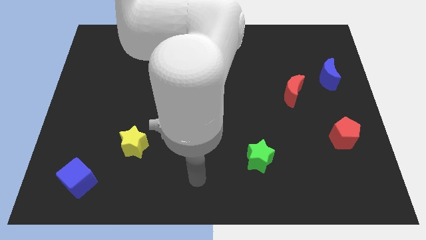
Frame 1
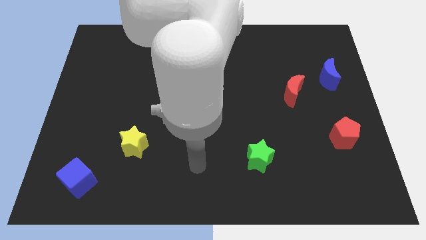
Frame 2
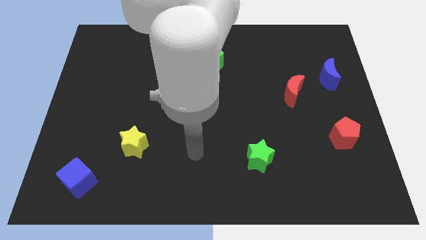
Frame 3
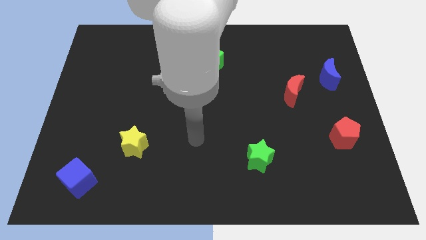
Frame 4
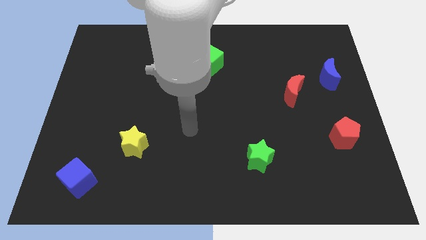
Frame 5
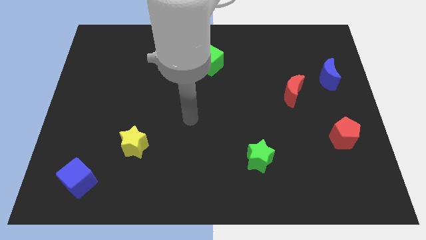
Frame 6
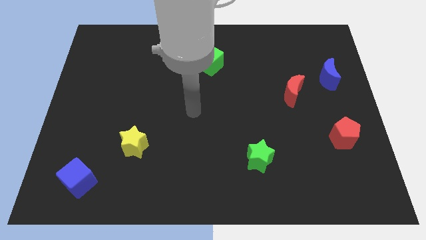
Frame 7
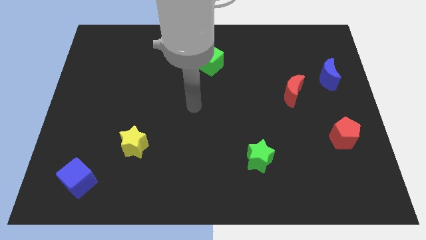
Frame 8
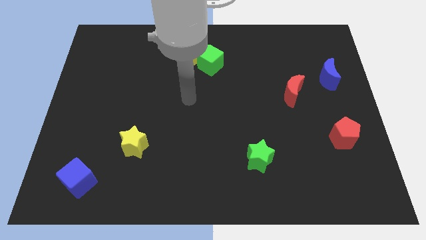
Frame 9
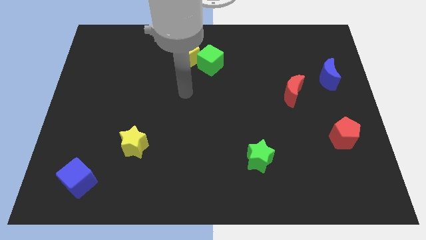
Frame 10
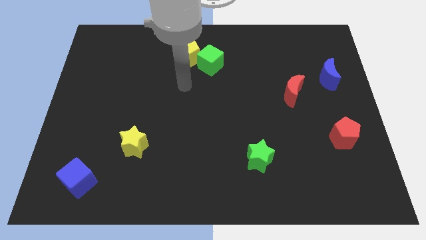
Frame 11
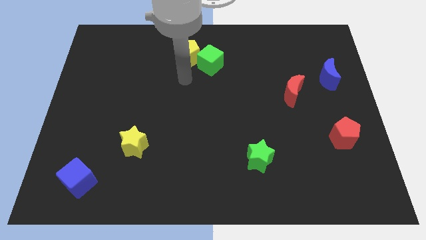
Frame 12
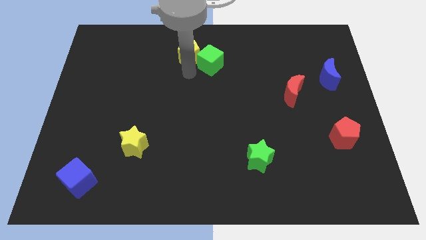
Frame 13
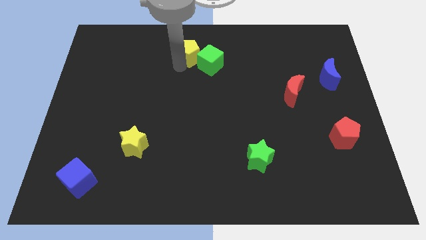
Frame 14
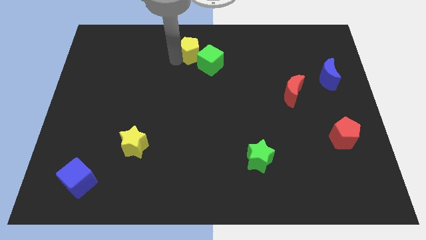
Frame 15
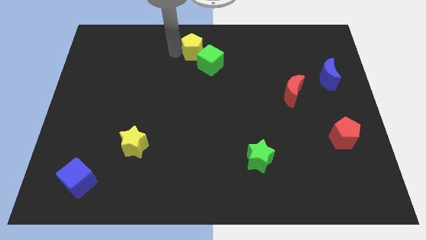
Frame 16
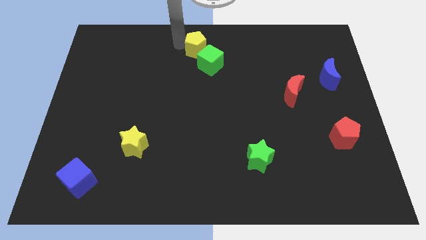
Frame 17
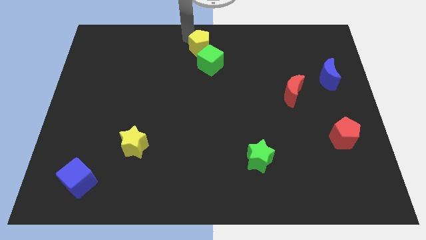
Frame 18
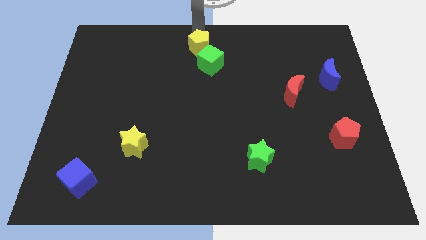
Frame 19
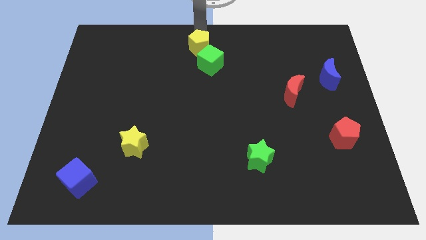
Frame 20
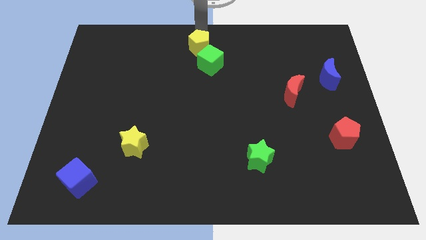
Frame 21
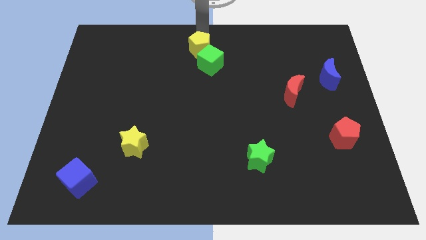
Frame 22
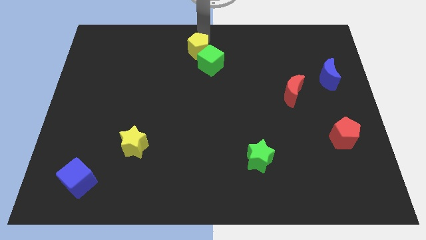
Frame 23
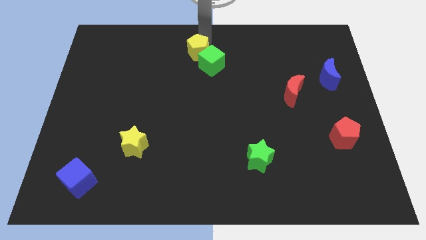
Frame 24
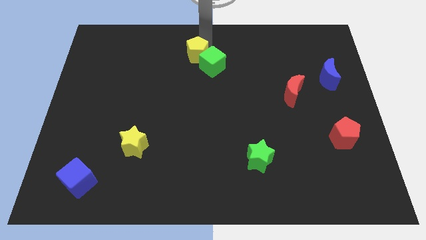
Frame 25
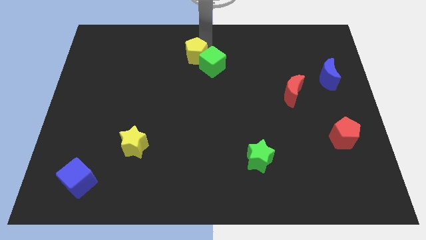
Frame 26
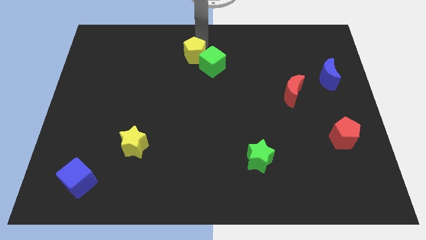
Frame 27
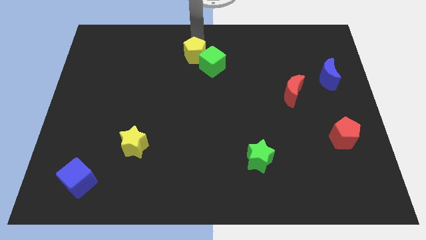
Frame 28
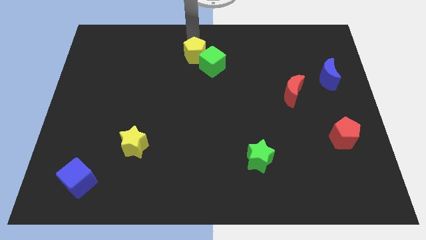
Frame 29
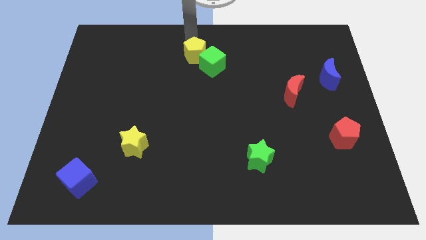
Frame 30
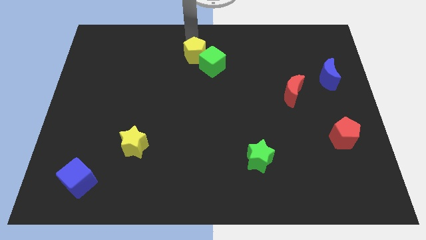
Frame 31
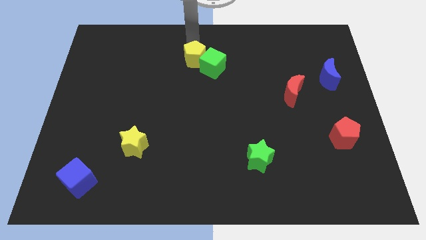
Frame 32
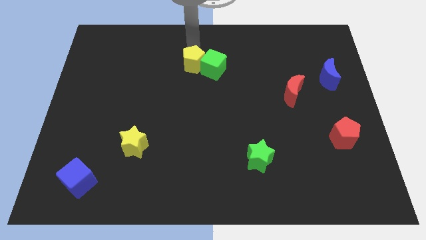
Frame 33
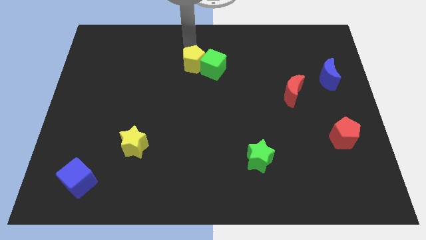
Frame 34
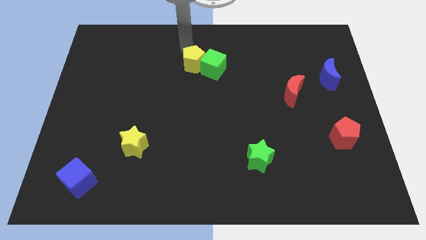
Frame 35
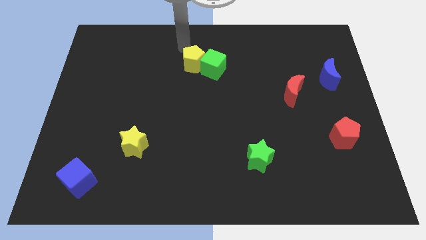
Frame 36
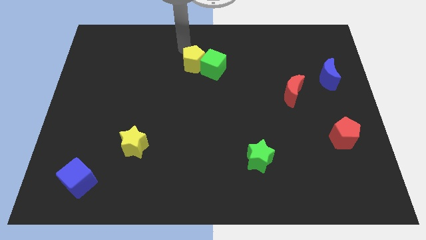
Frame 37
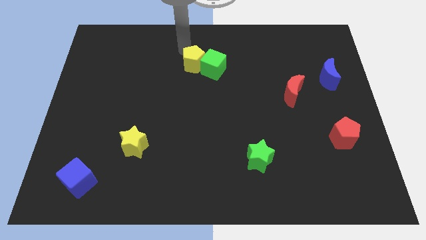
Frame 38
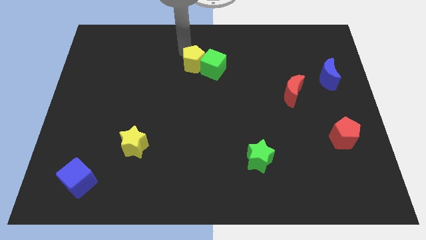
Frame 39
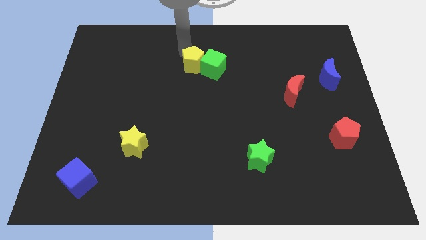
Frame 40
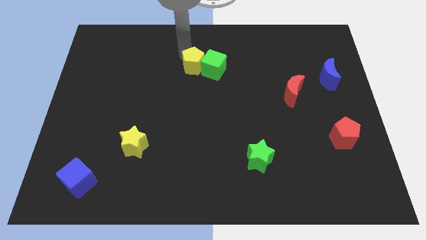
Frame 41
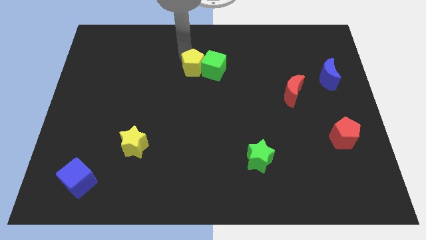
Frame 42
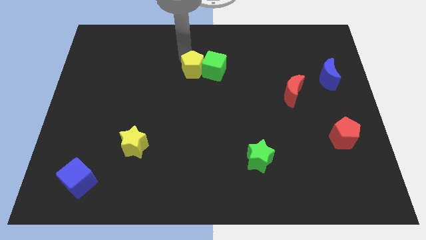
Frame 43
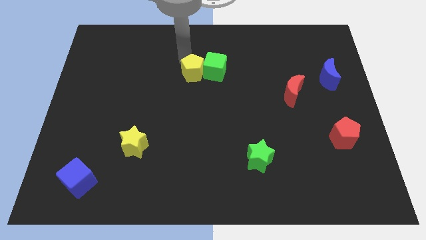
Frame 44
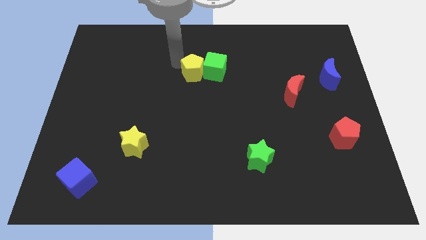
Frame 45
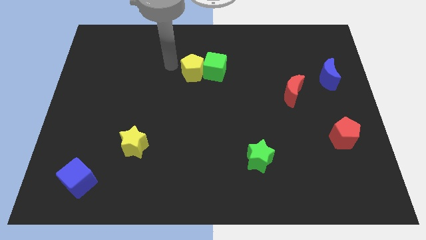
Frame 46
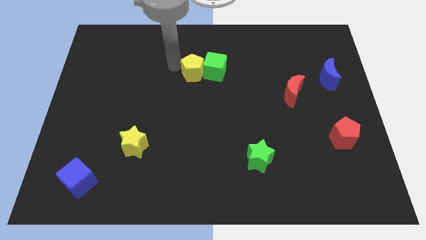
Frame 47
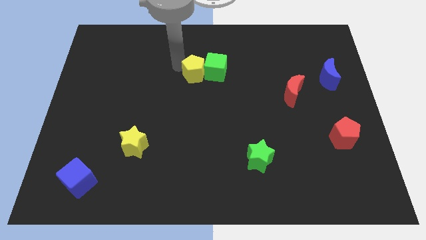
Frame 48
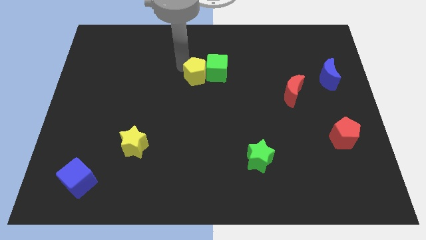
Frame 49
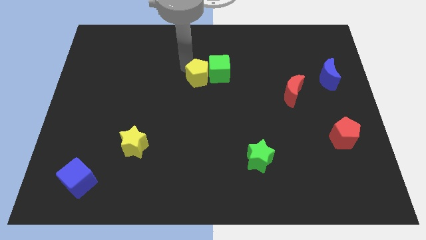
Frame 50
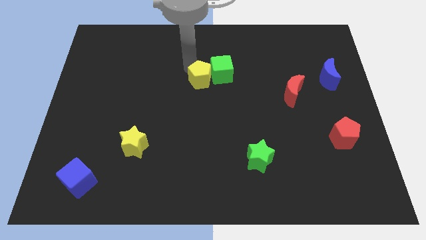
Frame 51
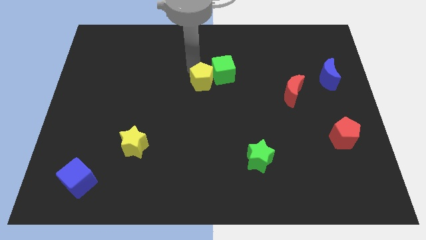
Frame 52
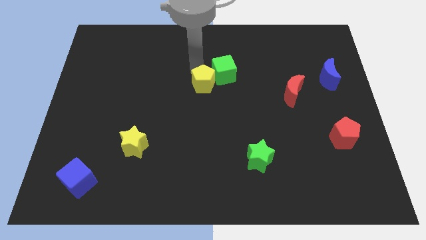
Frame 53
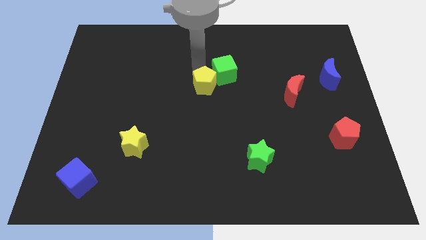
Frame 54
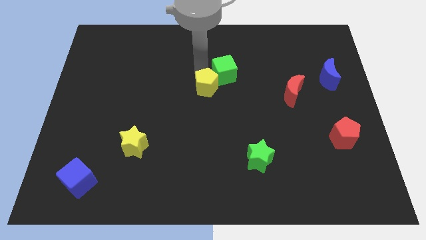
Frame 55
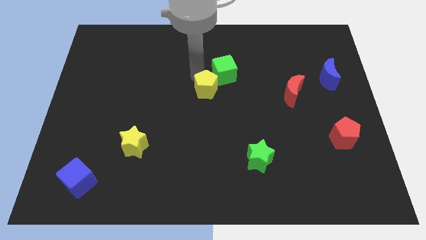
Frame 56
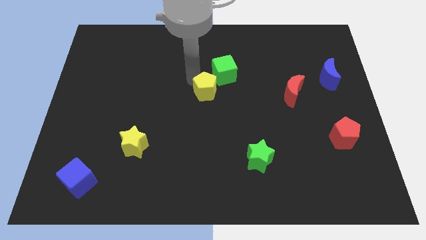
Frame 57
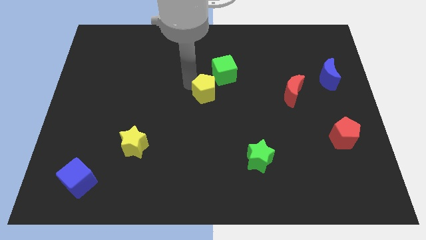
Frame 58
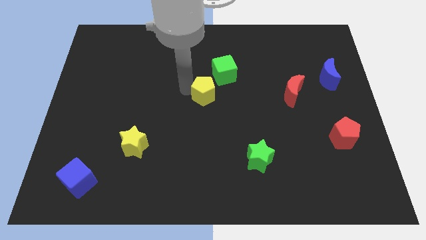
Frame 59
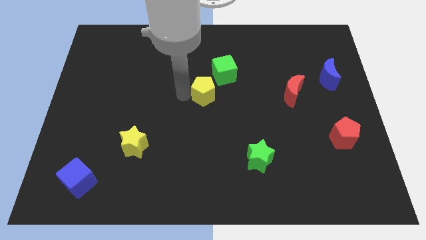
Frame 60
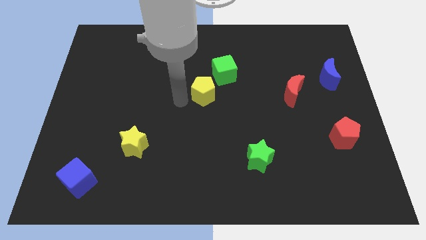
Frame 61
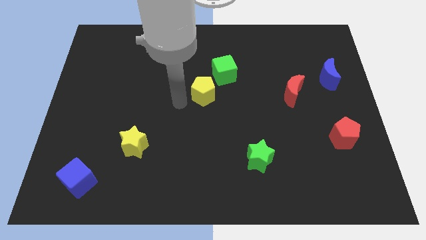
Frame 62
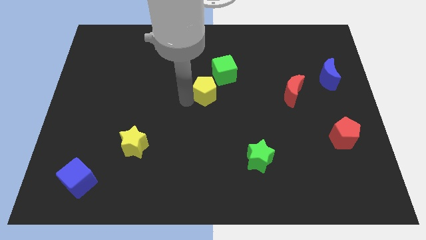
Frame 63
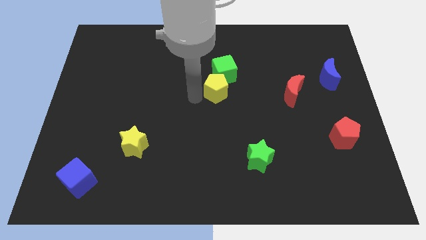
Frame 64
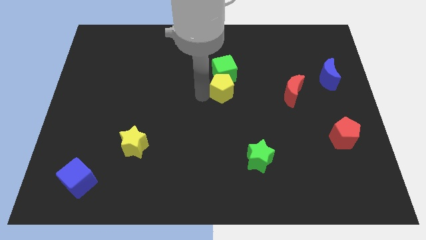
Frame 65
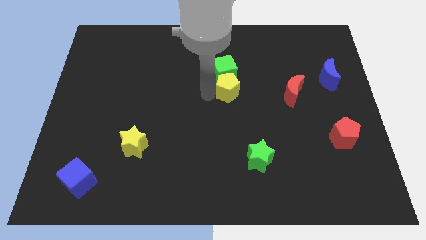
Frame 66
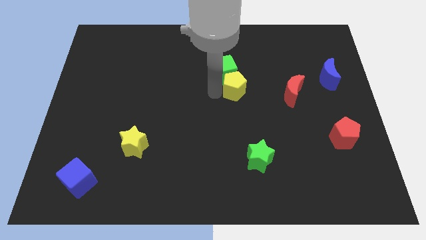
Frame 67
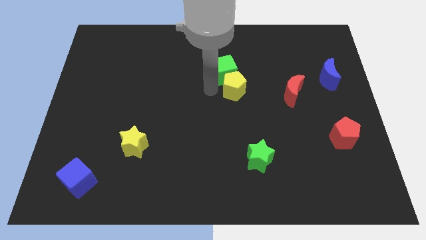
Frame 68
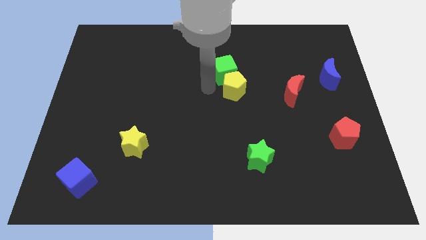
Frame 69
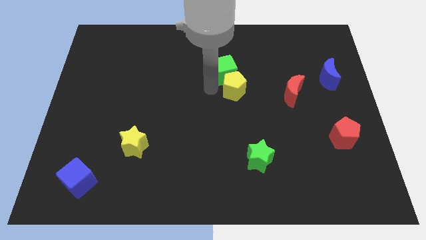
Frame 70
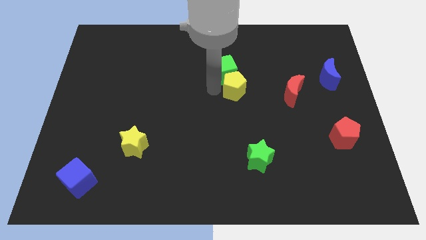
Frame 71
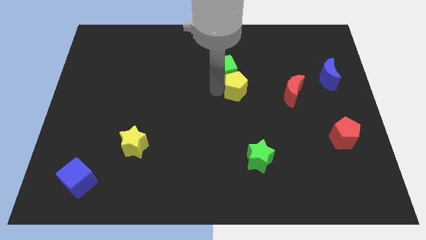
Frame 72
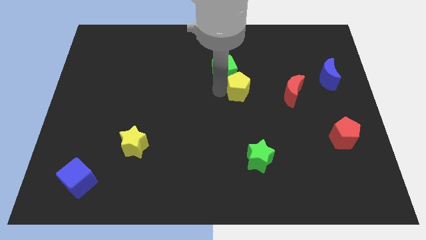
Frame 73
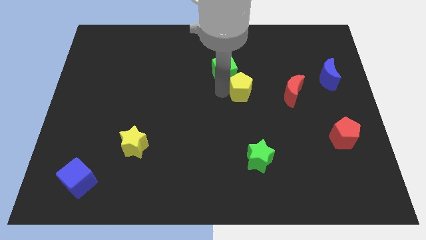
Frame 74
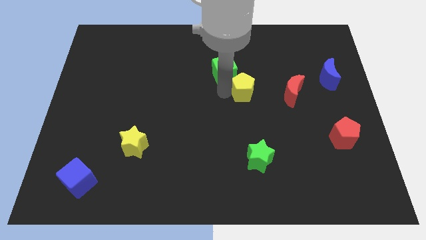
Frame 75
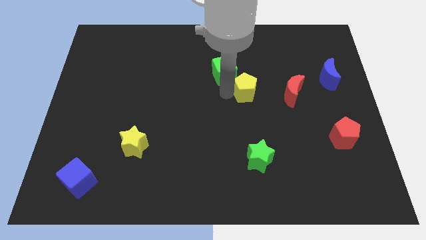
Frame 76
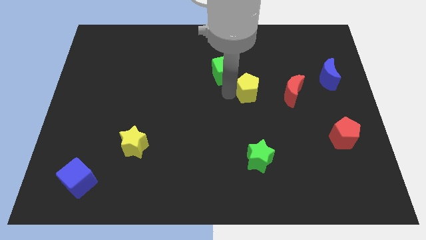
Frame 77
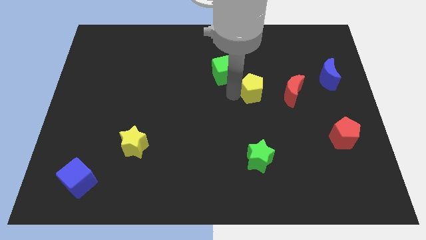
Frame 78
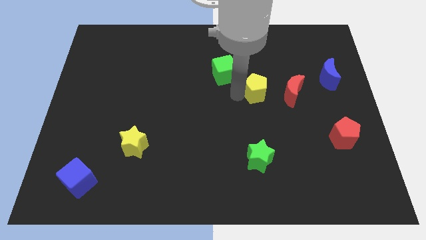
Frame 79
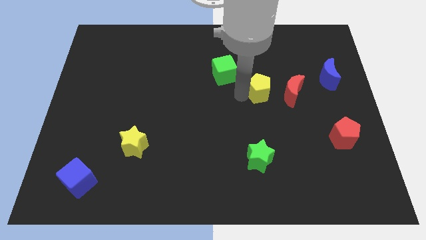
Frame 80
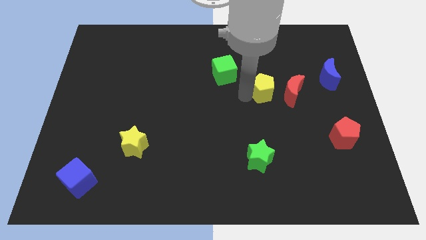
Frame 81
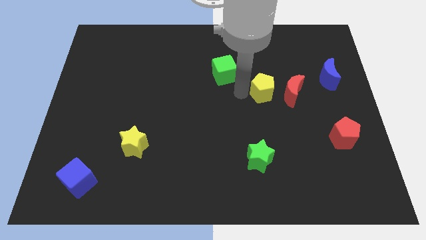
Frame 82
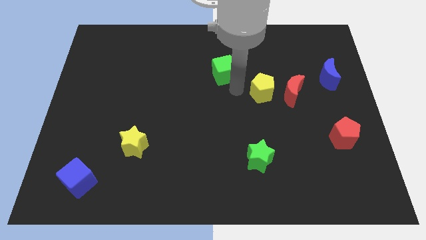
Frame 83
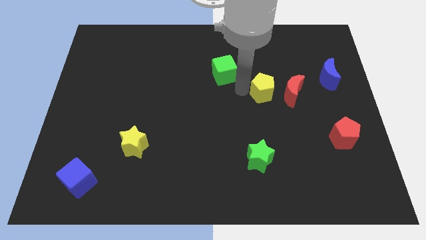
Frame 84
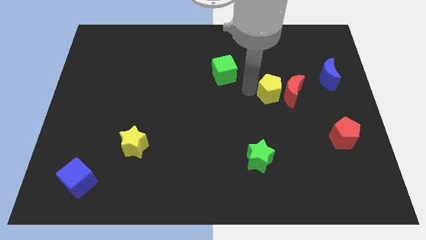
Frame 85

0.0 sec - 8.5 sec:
push the yellow pentagon close to the red moon
